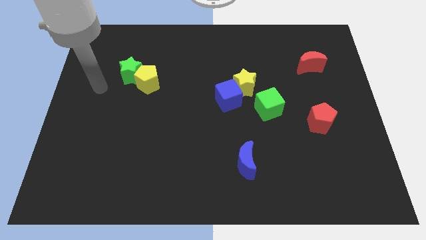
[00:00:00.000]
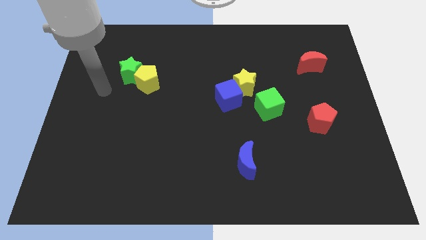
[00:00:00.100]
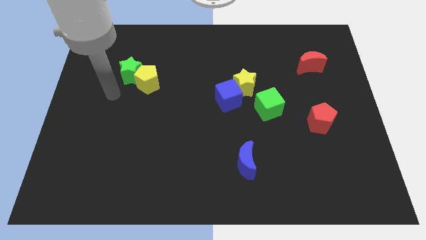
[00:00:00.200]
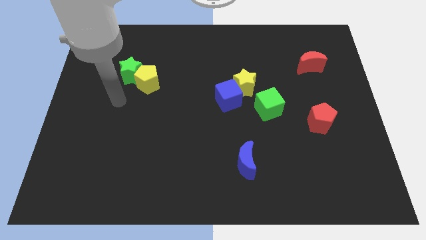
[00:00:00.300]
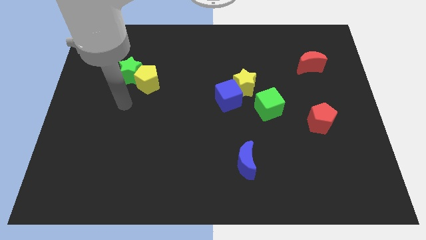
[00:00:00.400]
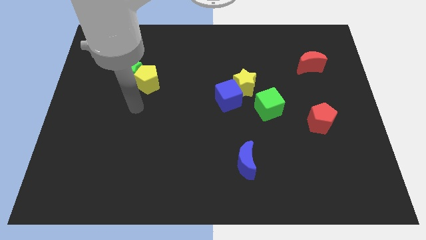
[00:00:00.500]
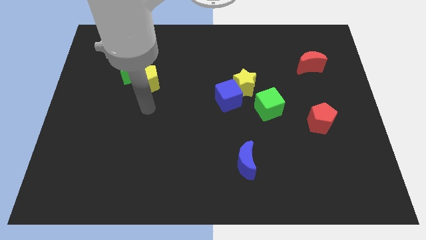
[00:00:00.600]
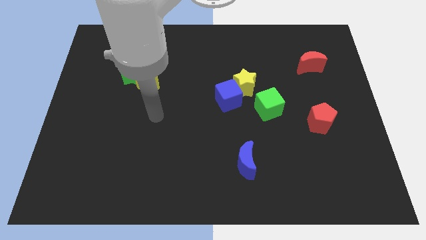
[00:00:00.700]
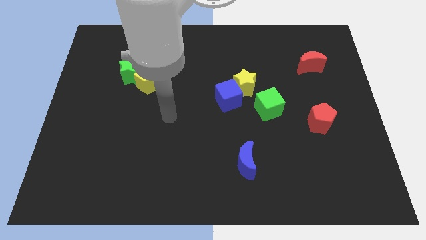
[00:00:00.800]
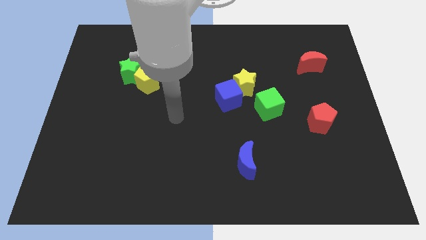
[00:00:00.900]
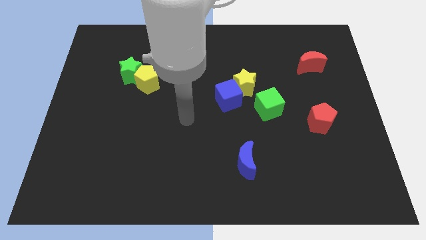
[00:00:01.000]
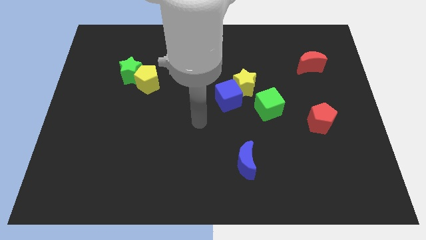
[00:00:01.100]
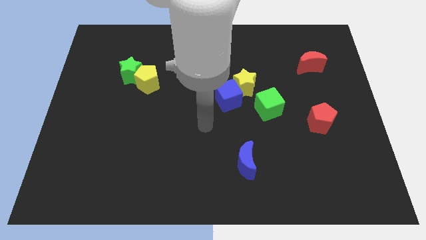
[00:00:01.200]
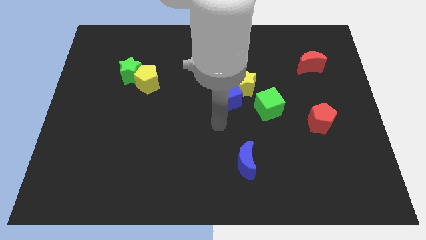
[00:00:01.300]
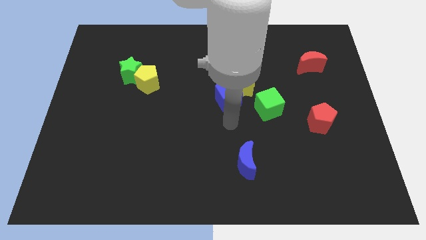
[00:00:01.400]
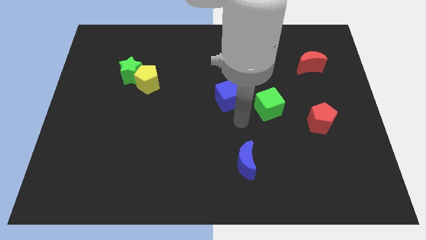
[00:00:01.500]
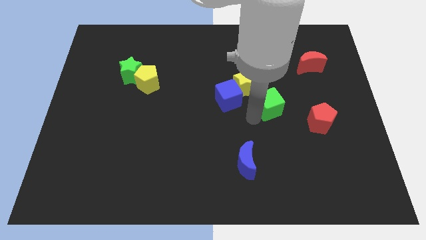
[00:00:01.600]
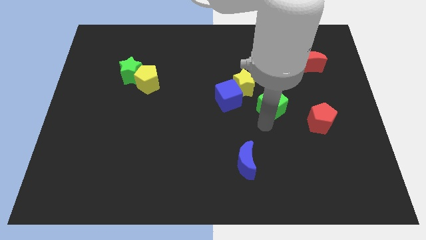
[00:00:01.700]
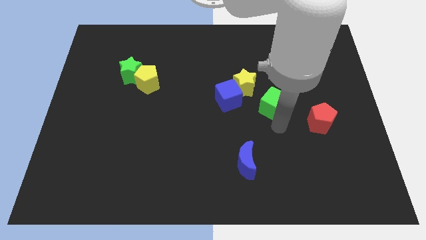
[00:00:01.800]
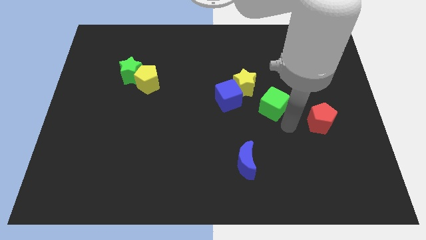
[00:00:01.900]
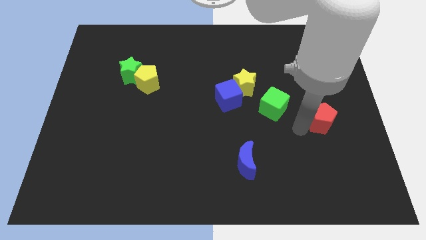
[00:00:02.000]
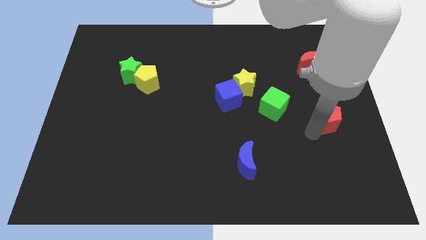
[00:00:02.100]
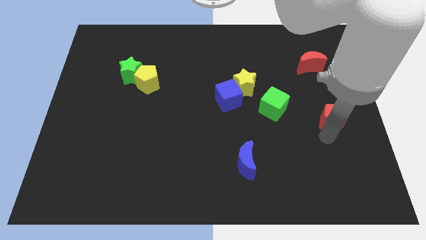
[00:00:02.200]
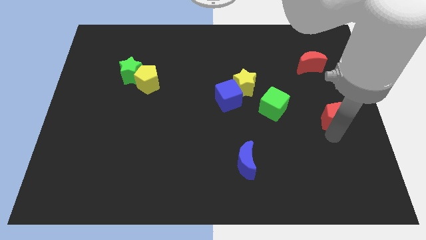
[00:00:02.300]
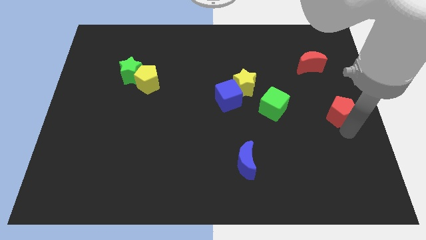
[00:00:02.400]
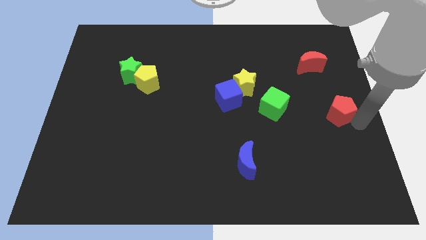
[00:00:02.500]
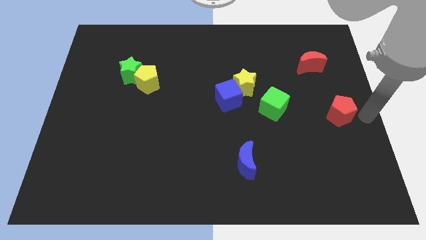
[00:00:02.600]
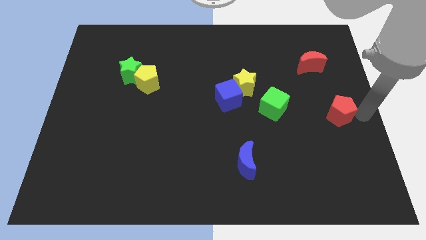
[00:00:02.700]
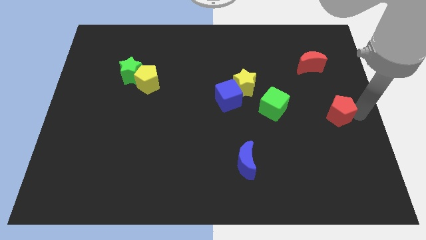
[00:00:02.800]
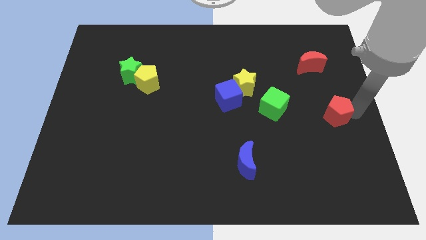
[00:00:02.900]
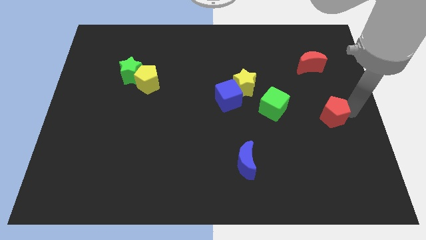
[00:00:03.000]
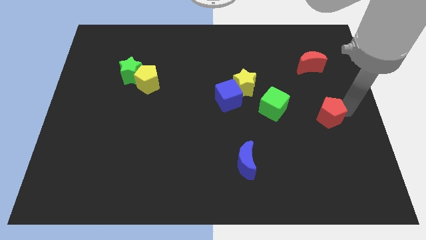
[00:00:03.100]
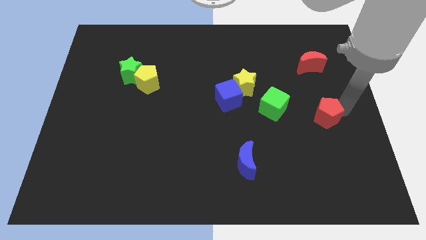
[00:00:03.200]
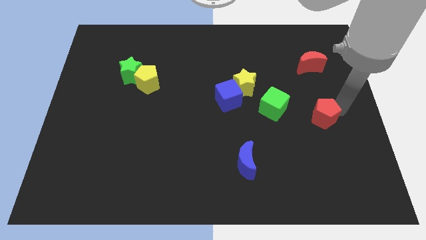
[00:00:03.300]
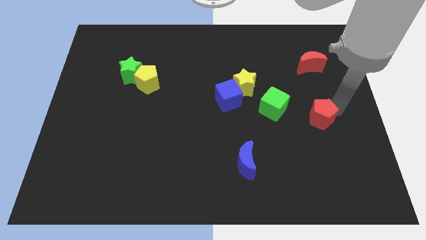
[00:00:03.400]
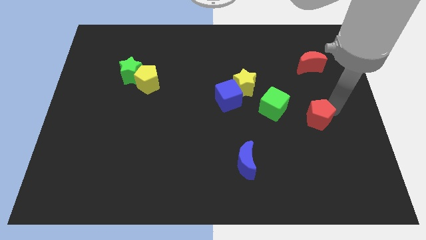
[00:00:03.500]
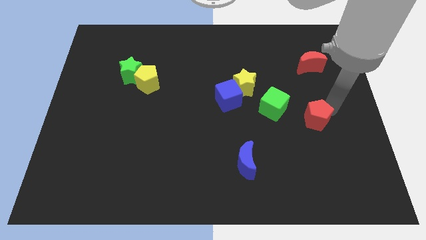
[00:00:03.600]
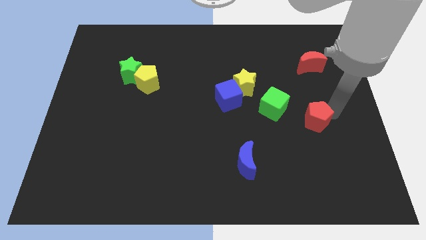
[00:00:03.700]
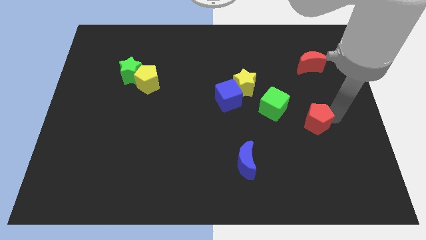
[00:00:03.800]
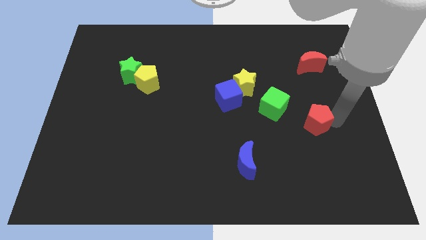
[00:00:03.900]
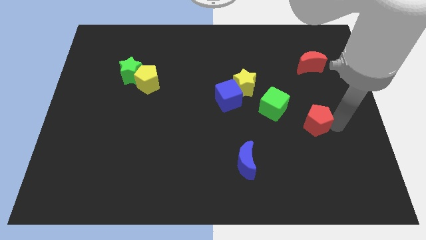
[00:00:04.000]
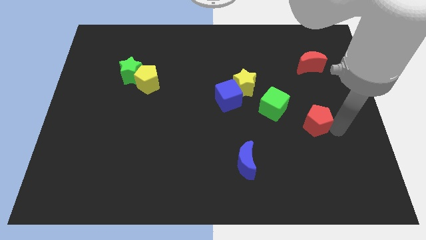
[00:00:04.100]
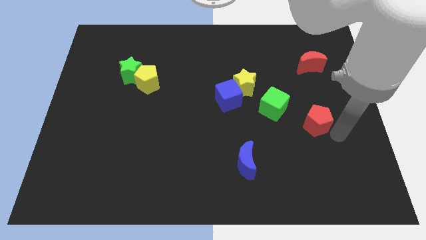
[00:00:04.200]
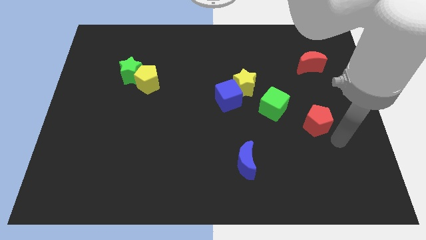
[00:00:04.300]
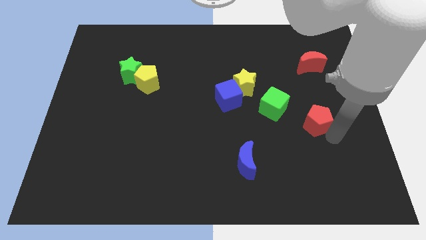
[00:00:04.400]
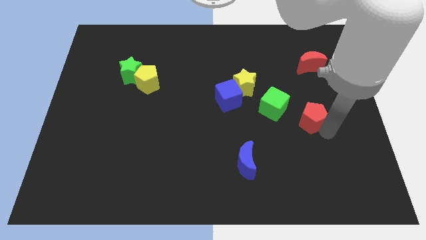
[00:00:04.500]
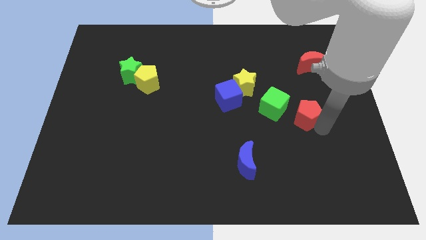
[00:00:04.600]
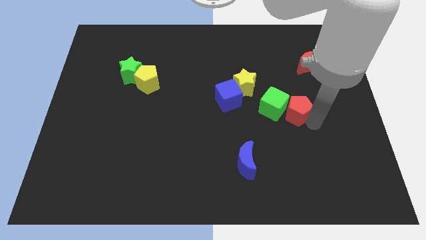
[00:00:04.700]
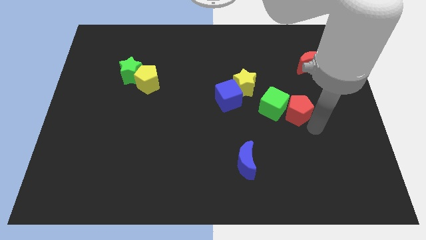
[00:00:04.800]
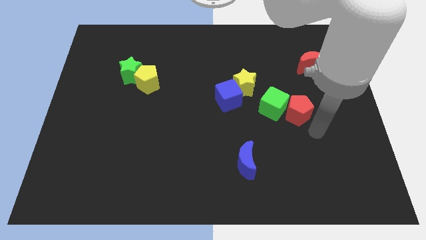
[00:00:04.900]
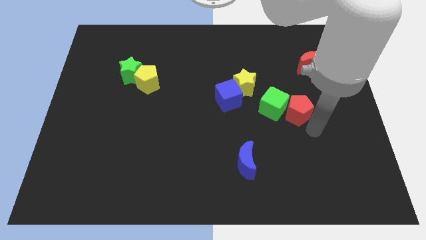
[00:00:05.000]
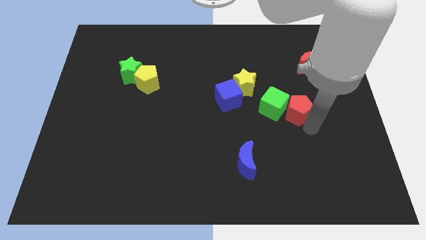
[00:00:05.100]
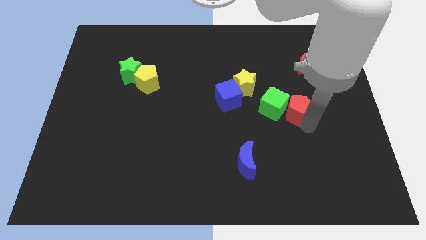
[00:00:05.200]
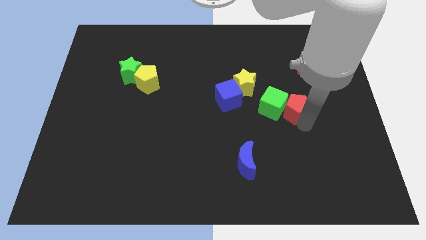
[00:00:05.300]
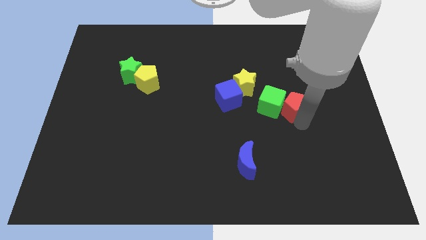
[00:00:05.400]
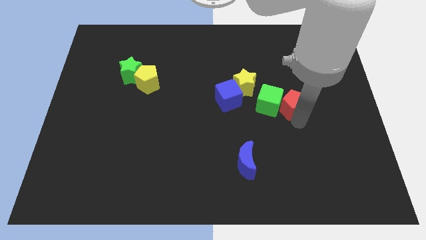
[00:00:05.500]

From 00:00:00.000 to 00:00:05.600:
push the red pentagon a little up and then left

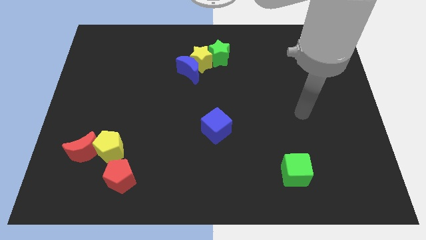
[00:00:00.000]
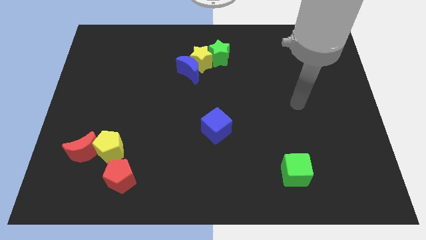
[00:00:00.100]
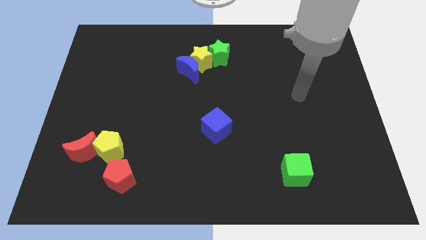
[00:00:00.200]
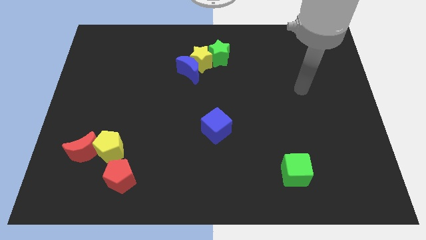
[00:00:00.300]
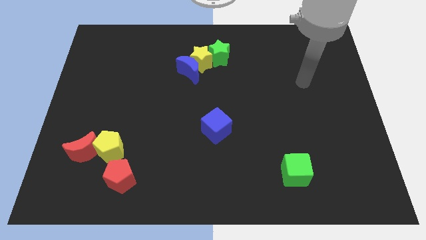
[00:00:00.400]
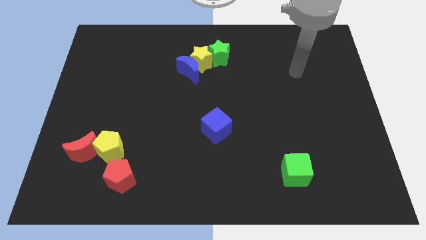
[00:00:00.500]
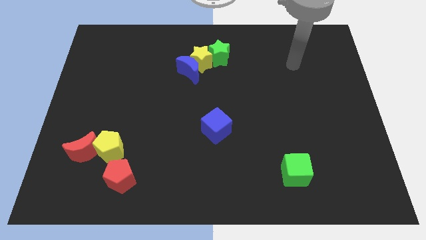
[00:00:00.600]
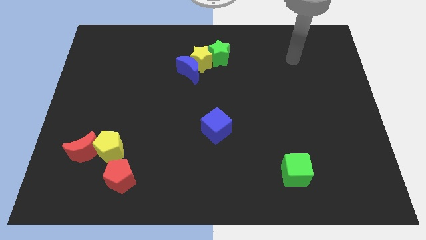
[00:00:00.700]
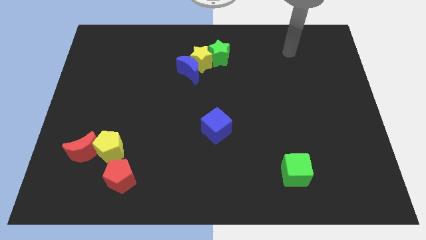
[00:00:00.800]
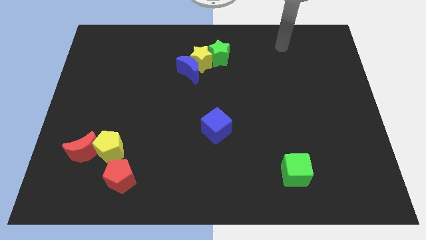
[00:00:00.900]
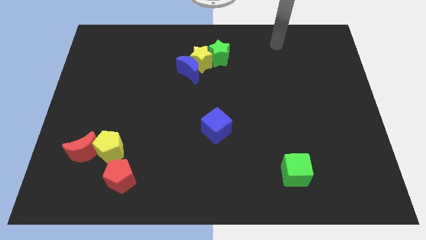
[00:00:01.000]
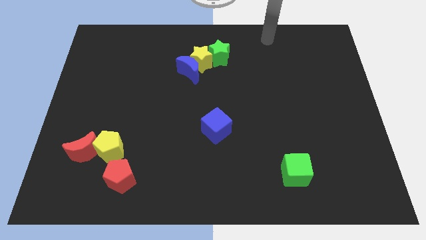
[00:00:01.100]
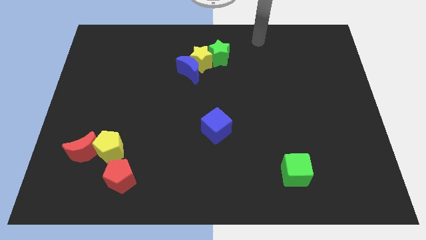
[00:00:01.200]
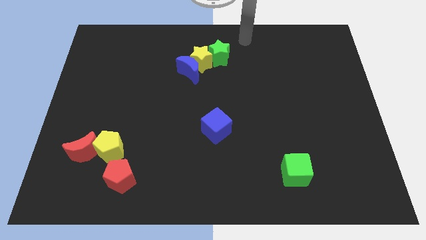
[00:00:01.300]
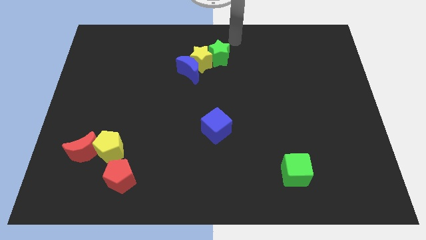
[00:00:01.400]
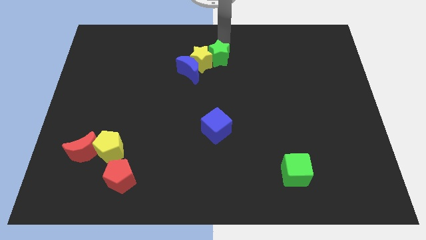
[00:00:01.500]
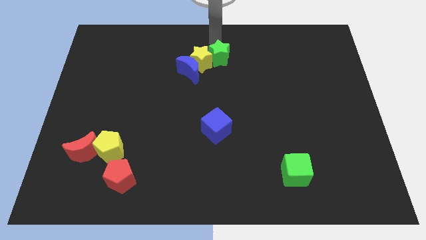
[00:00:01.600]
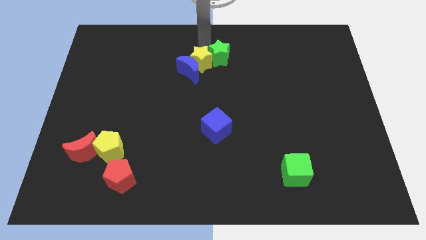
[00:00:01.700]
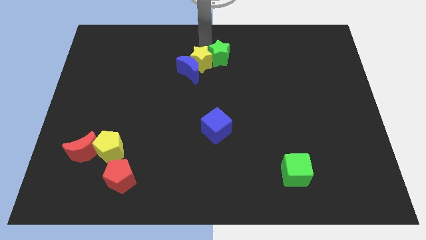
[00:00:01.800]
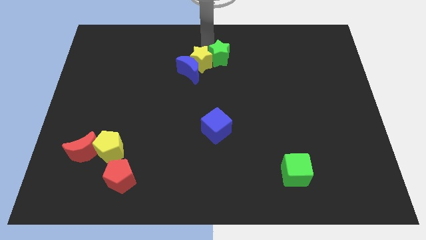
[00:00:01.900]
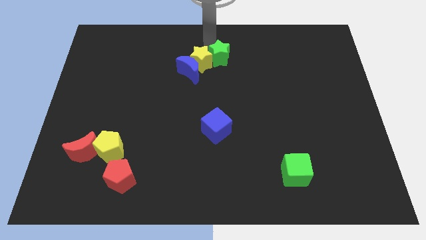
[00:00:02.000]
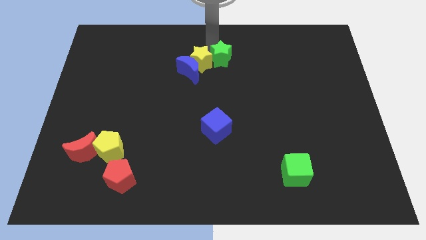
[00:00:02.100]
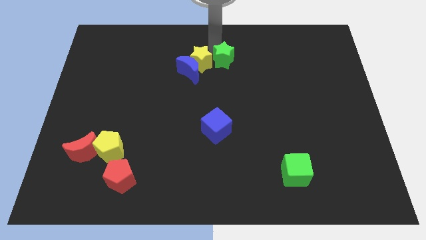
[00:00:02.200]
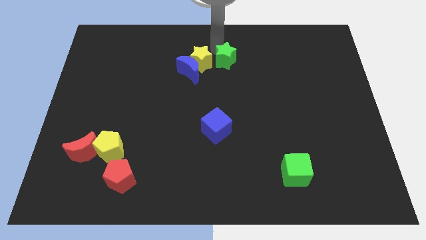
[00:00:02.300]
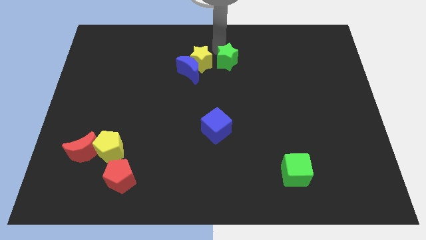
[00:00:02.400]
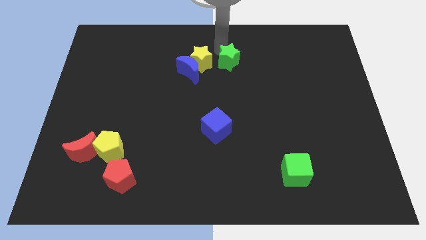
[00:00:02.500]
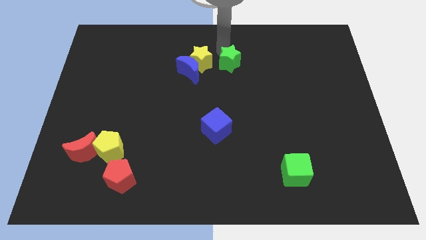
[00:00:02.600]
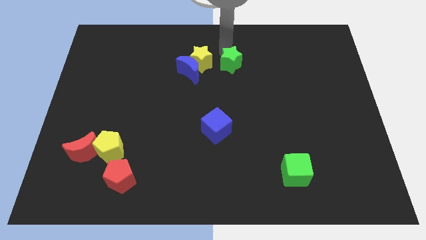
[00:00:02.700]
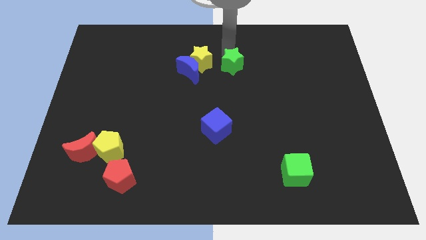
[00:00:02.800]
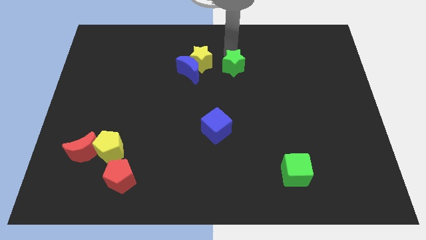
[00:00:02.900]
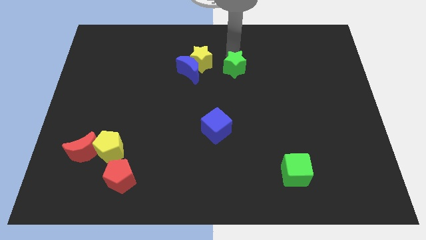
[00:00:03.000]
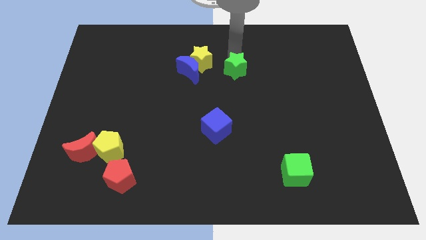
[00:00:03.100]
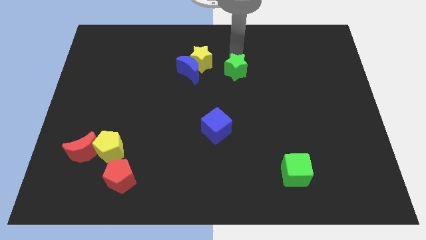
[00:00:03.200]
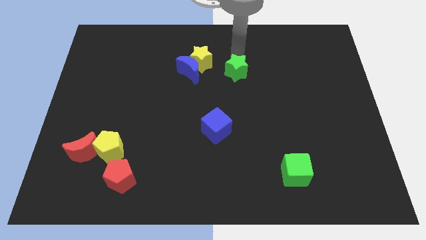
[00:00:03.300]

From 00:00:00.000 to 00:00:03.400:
slightly slide the green star downwards and then to the right
